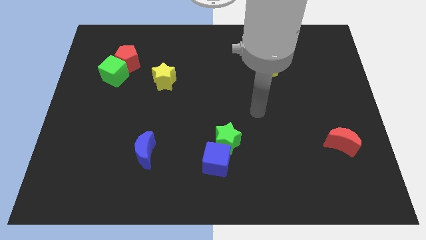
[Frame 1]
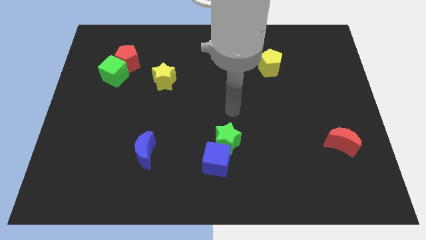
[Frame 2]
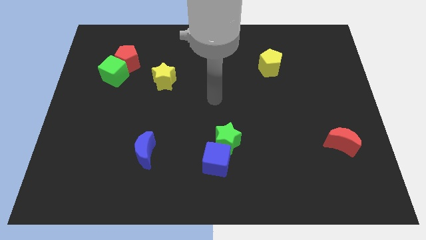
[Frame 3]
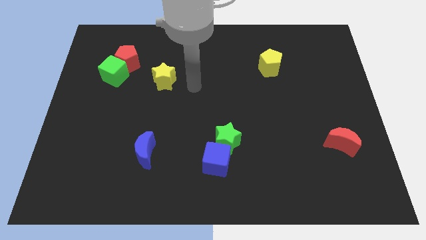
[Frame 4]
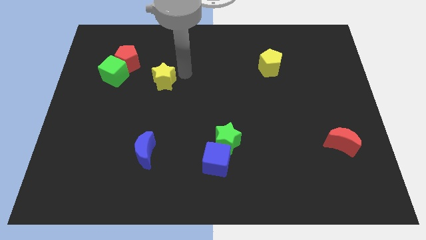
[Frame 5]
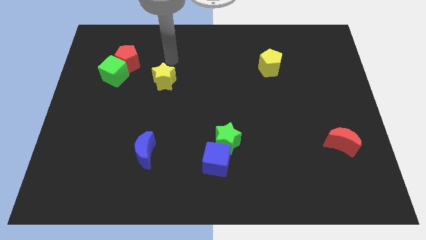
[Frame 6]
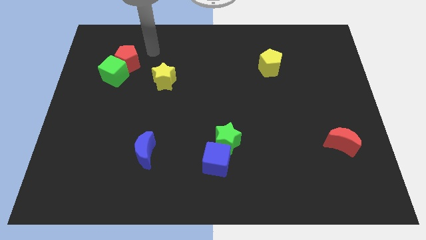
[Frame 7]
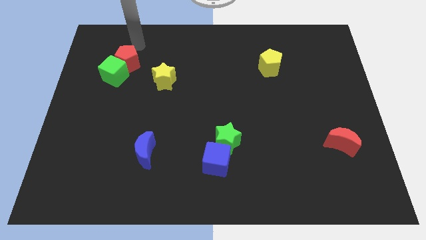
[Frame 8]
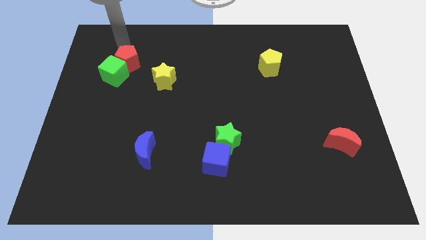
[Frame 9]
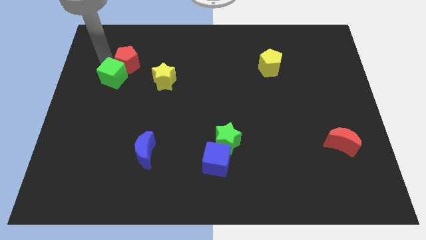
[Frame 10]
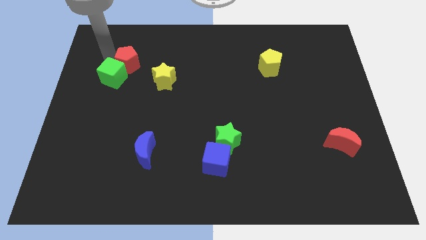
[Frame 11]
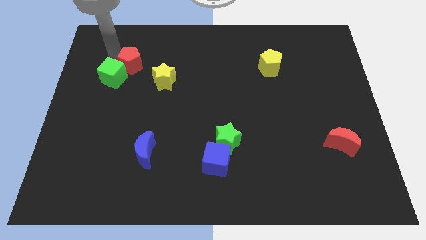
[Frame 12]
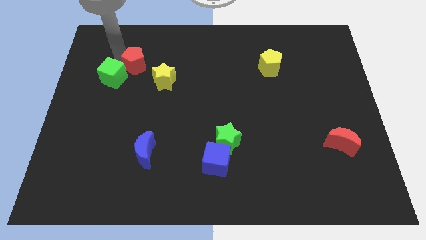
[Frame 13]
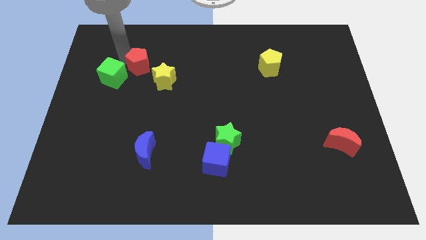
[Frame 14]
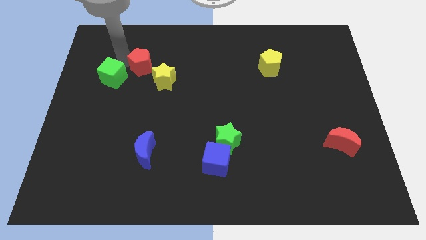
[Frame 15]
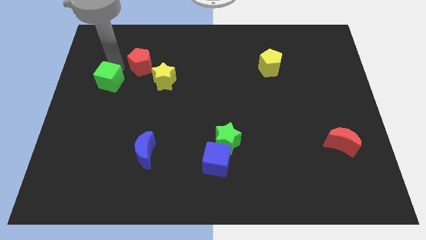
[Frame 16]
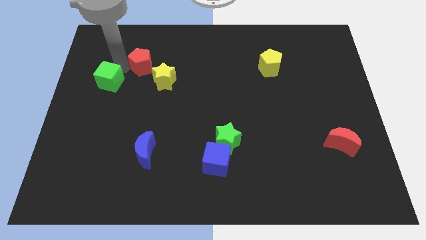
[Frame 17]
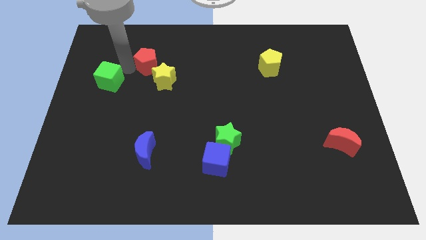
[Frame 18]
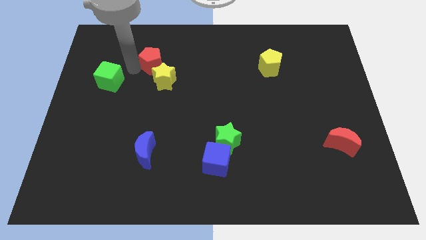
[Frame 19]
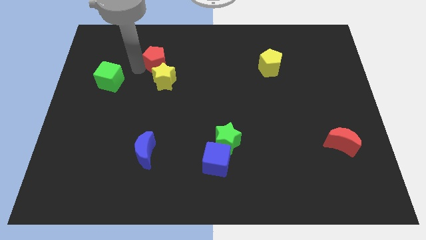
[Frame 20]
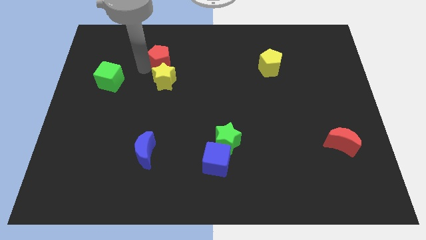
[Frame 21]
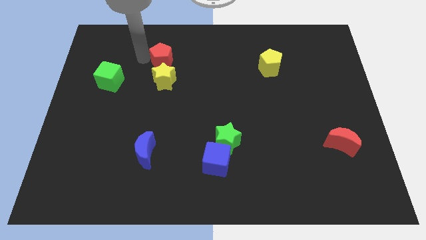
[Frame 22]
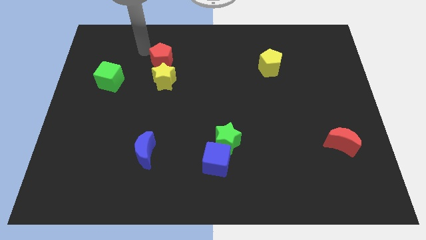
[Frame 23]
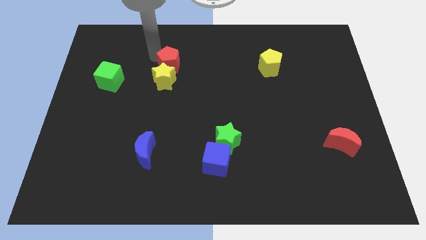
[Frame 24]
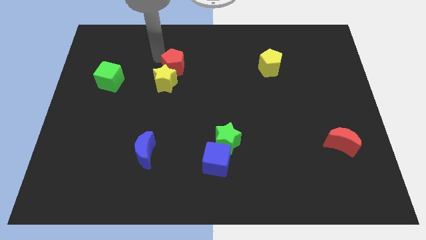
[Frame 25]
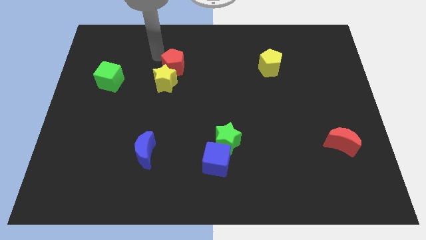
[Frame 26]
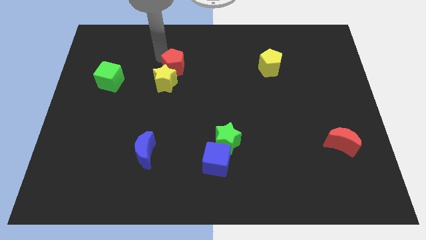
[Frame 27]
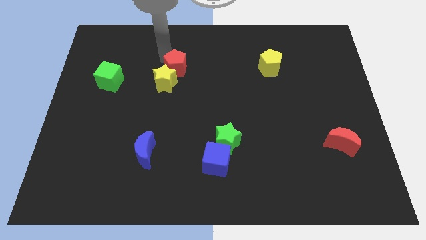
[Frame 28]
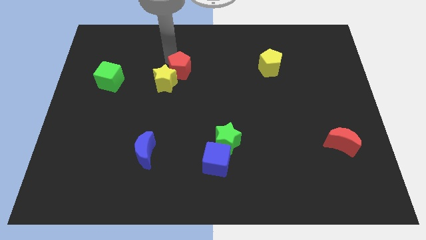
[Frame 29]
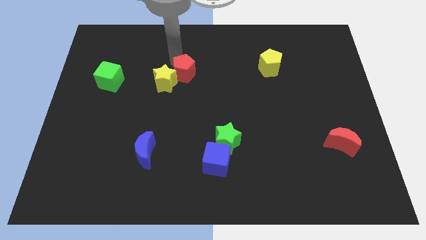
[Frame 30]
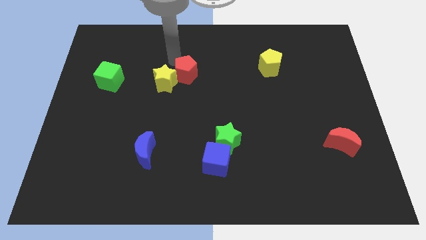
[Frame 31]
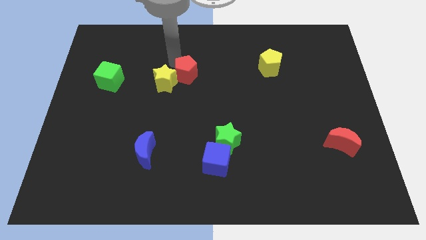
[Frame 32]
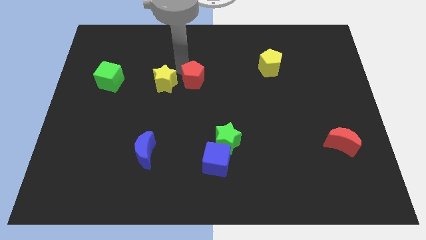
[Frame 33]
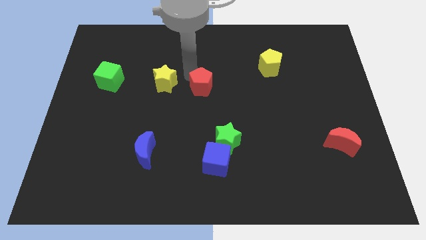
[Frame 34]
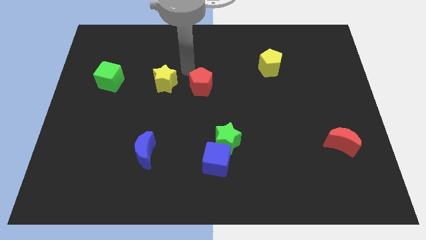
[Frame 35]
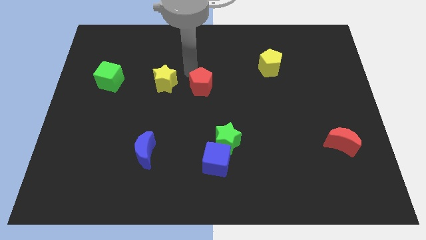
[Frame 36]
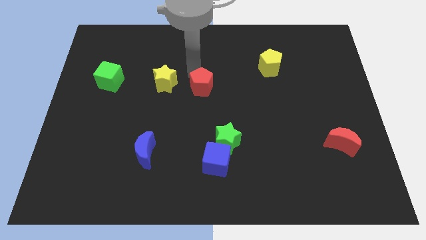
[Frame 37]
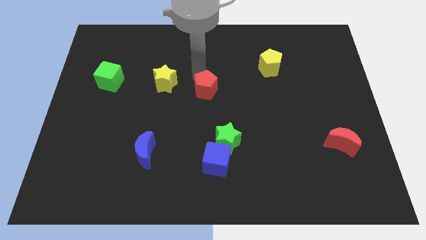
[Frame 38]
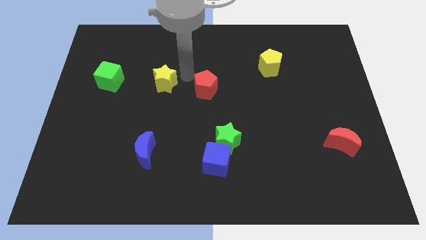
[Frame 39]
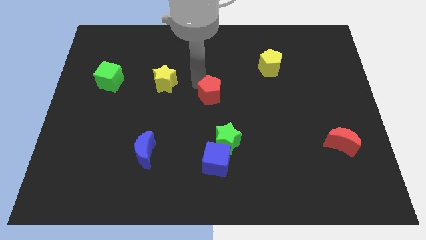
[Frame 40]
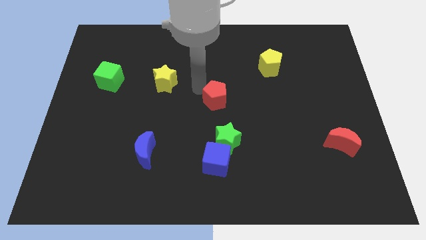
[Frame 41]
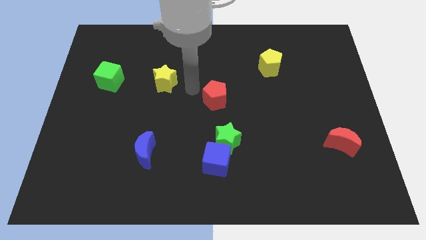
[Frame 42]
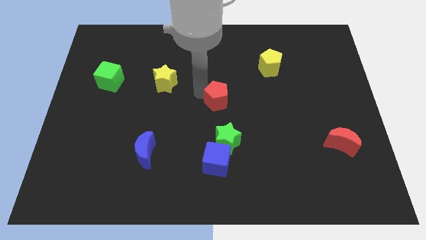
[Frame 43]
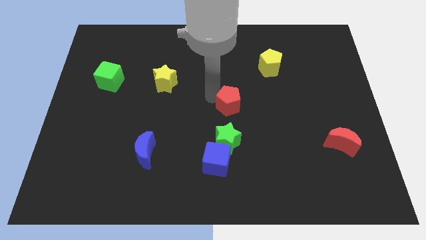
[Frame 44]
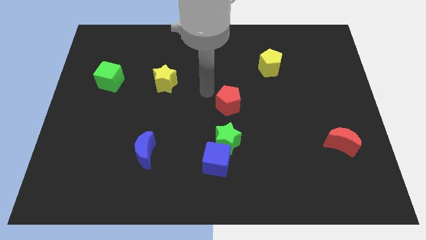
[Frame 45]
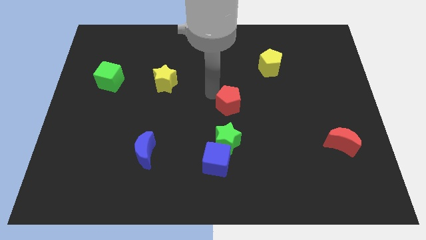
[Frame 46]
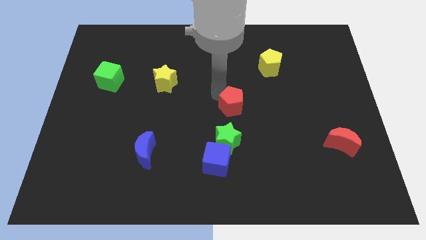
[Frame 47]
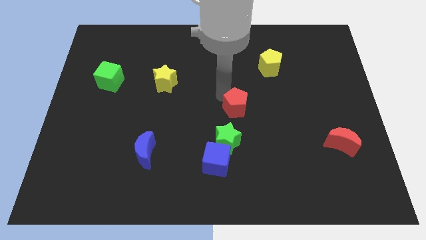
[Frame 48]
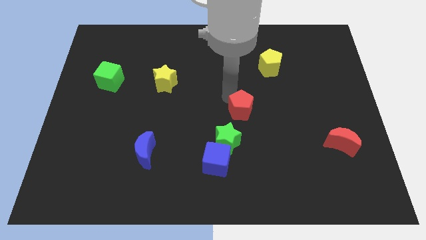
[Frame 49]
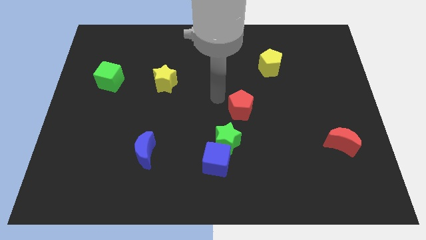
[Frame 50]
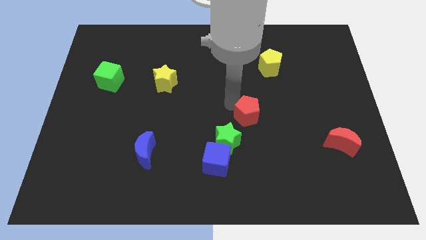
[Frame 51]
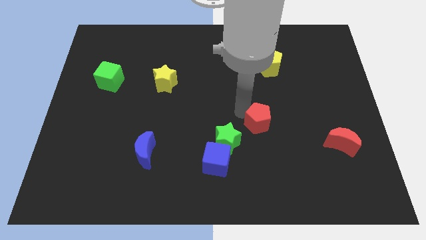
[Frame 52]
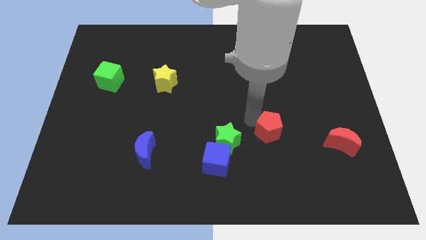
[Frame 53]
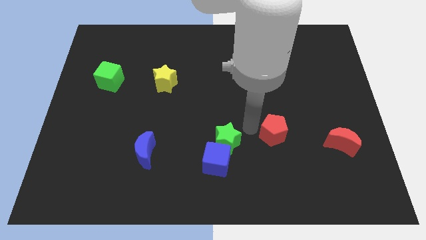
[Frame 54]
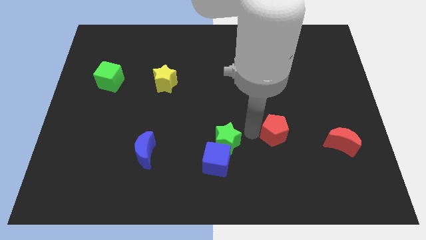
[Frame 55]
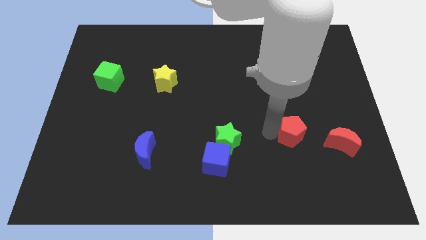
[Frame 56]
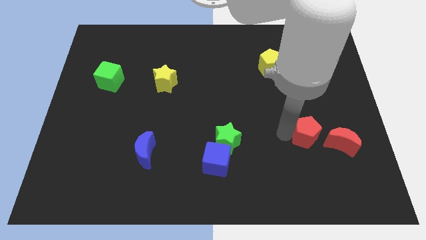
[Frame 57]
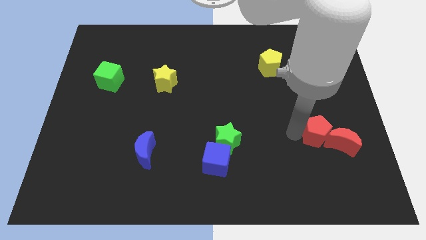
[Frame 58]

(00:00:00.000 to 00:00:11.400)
push the red pentagon towards the red moon

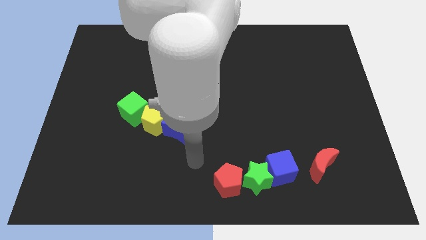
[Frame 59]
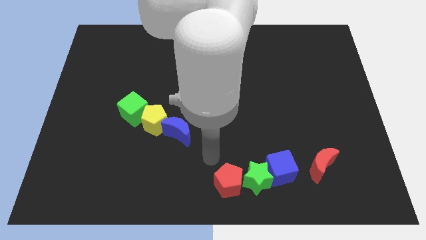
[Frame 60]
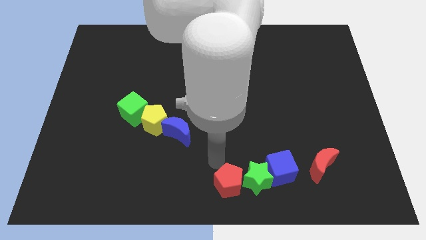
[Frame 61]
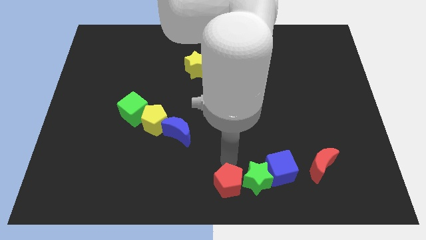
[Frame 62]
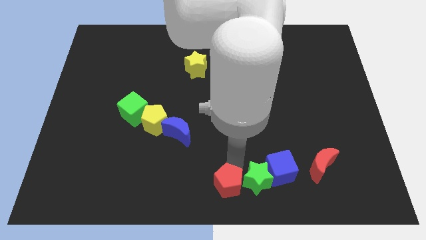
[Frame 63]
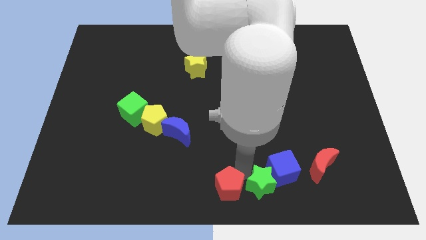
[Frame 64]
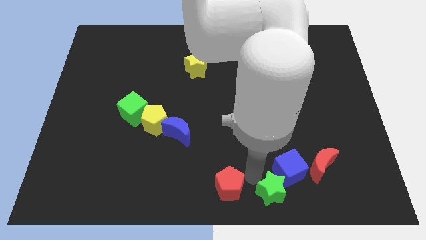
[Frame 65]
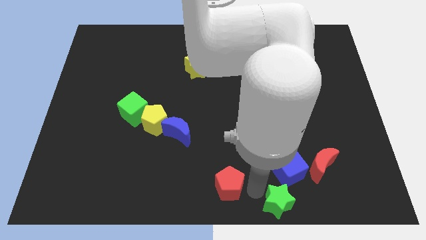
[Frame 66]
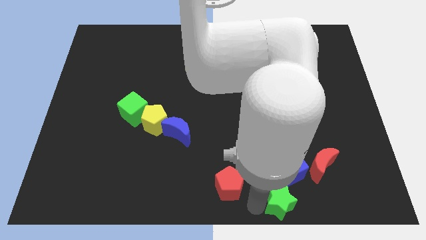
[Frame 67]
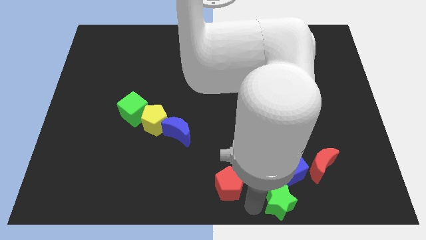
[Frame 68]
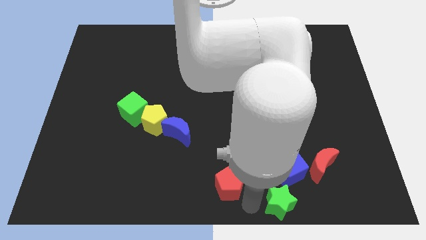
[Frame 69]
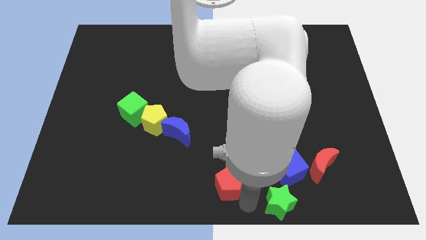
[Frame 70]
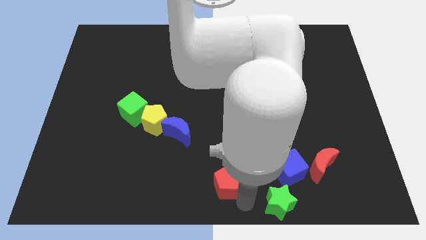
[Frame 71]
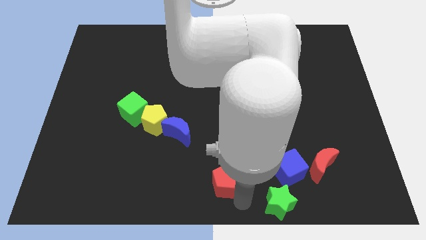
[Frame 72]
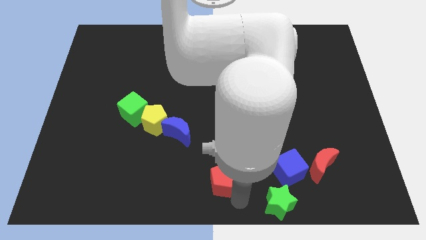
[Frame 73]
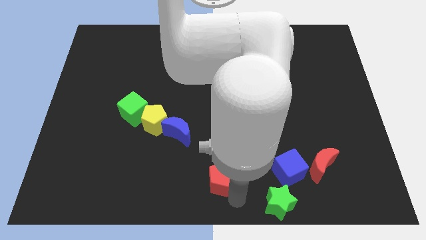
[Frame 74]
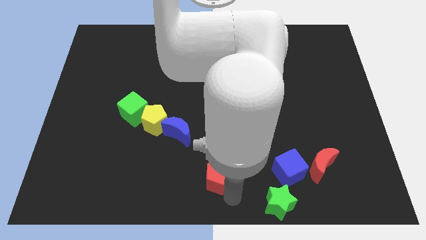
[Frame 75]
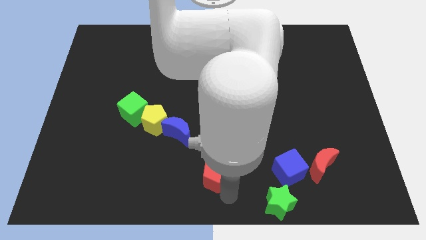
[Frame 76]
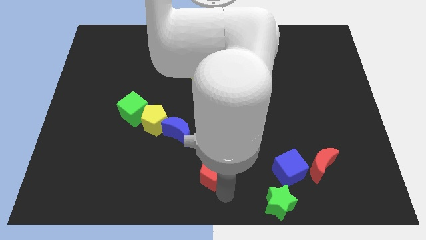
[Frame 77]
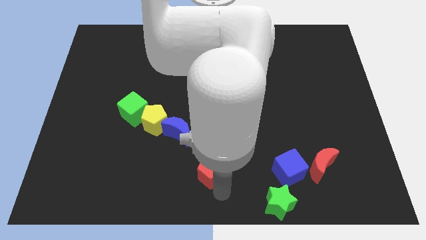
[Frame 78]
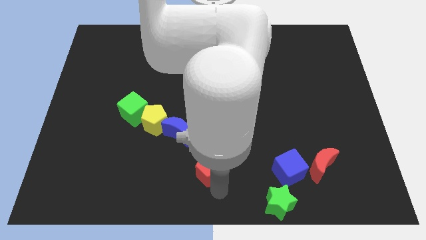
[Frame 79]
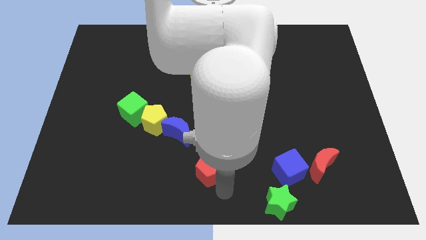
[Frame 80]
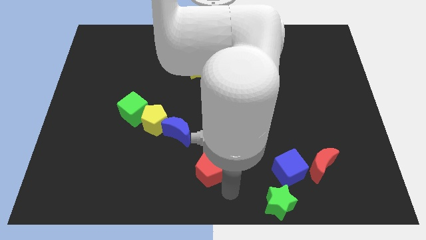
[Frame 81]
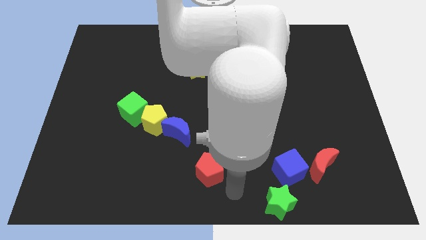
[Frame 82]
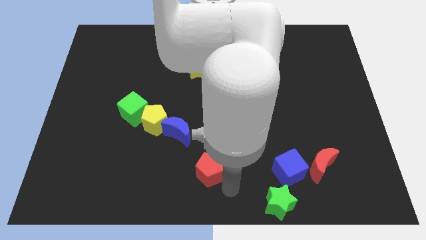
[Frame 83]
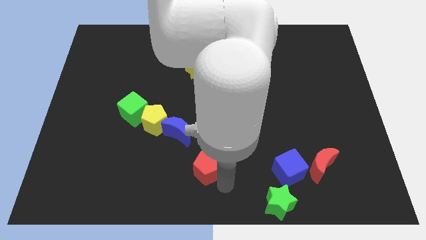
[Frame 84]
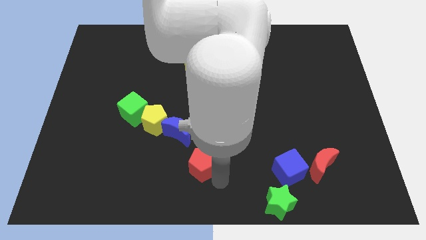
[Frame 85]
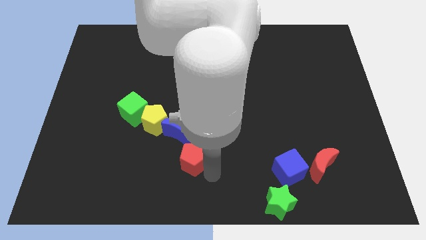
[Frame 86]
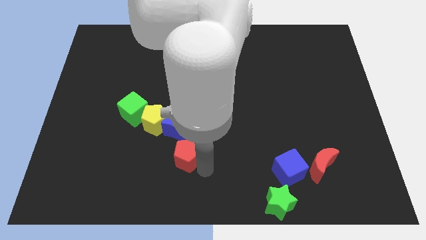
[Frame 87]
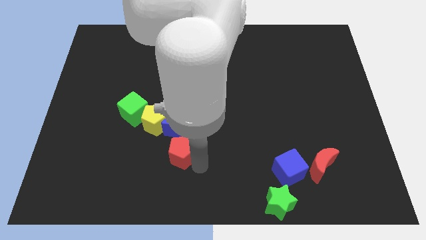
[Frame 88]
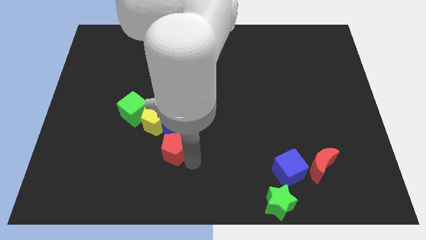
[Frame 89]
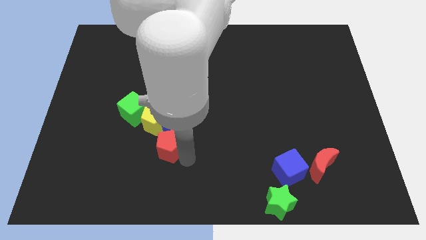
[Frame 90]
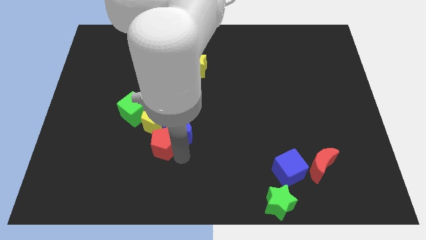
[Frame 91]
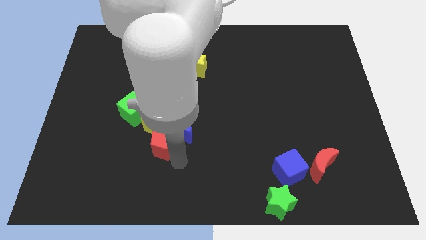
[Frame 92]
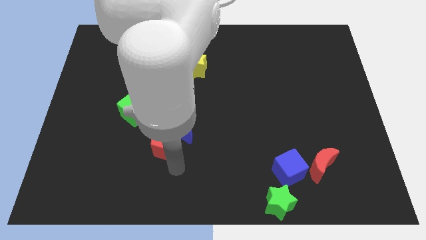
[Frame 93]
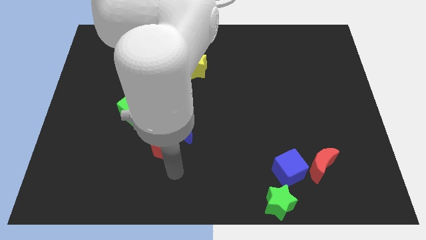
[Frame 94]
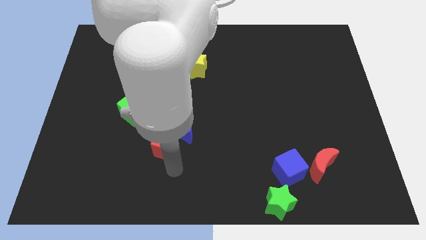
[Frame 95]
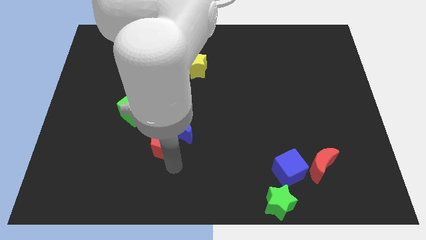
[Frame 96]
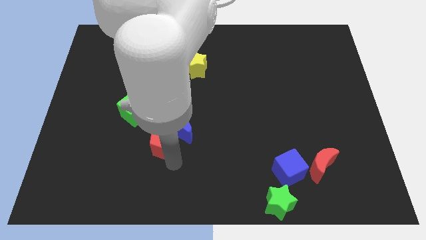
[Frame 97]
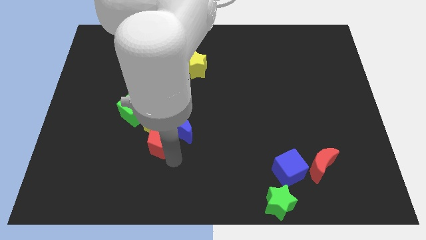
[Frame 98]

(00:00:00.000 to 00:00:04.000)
put the red pentagon close to the yellow pentagon
